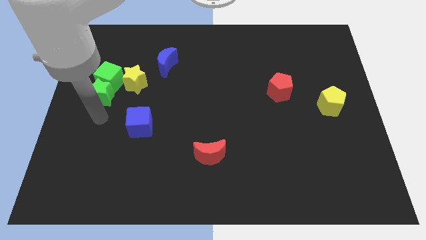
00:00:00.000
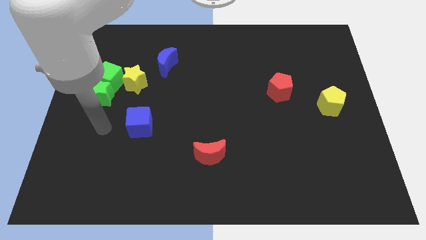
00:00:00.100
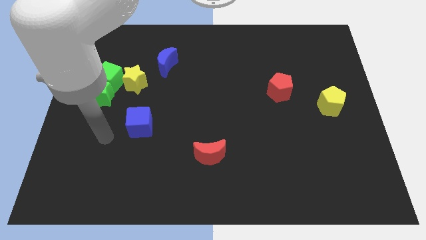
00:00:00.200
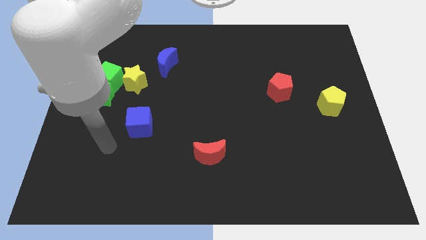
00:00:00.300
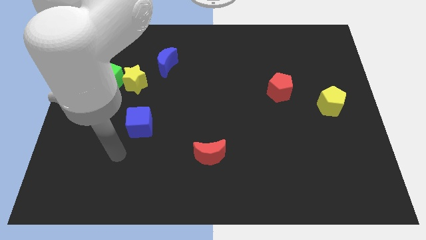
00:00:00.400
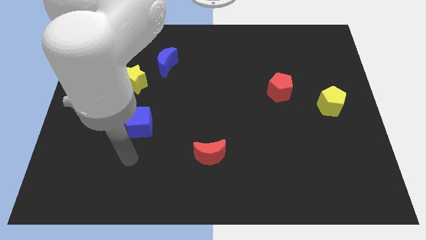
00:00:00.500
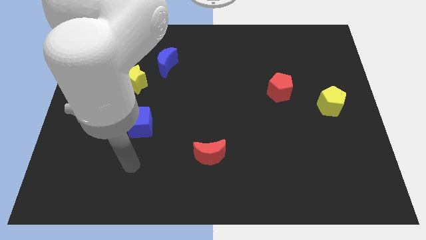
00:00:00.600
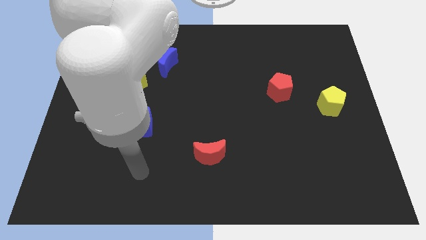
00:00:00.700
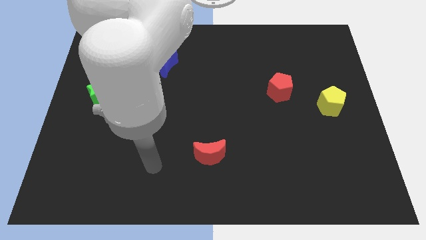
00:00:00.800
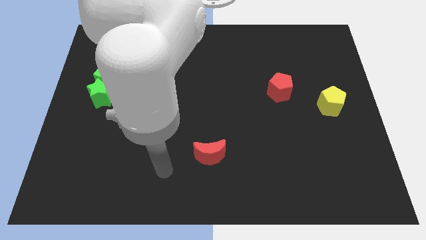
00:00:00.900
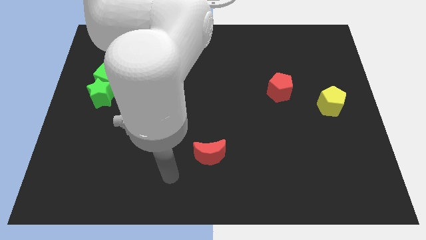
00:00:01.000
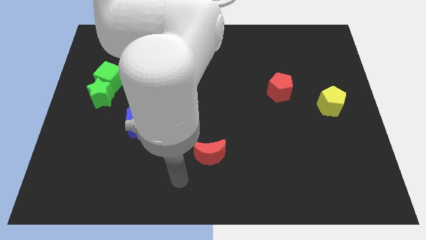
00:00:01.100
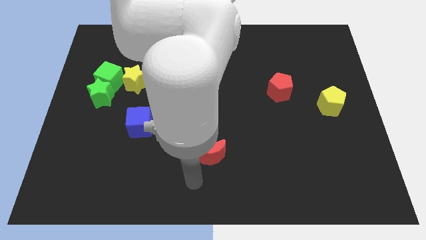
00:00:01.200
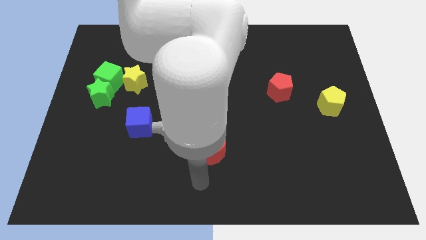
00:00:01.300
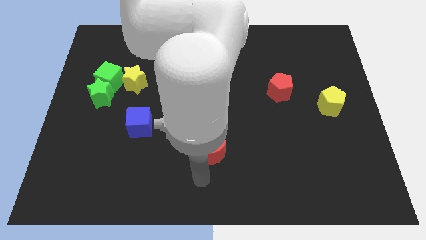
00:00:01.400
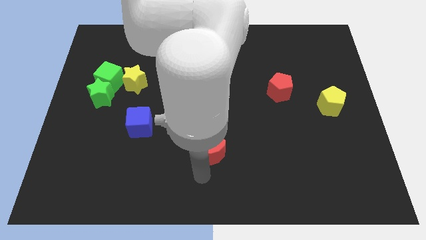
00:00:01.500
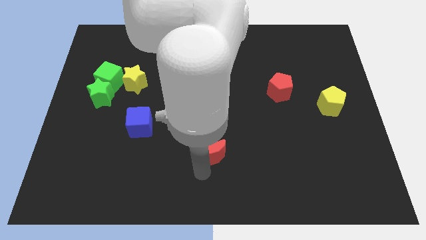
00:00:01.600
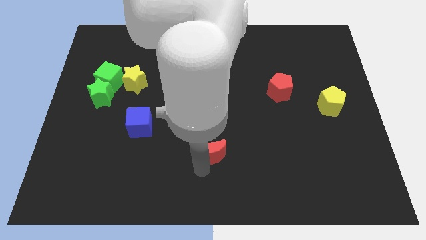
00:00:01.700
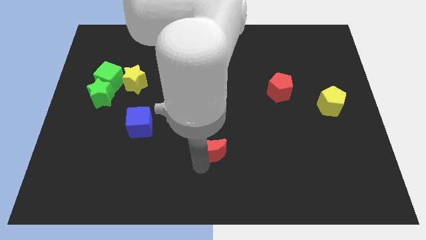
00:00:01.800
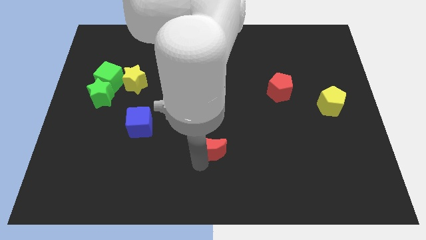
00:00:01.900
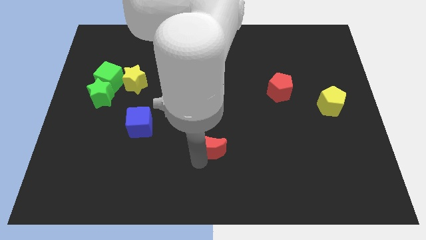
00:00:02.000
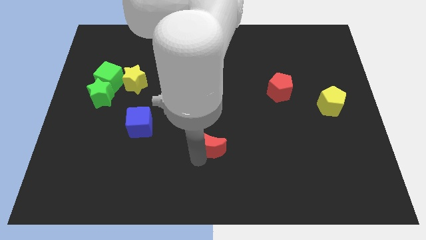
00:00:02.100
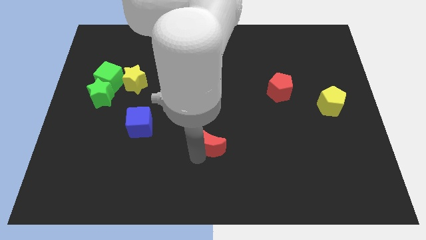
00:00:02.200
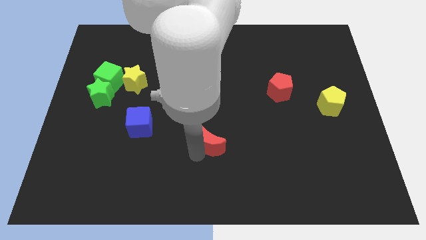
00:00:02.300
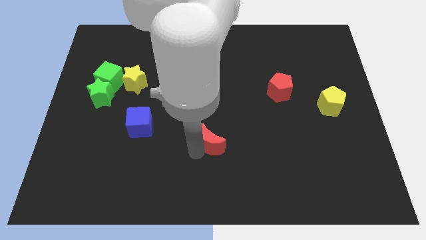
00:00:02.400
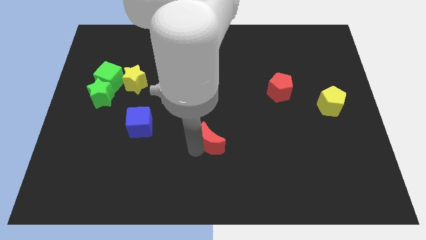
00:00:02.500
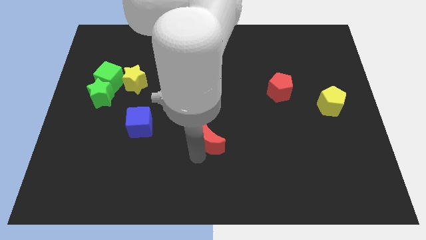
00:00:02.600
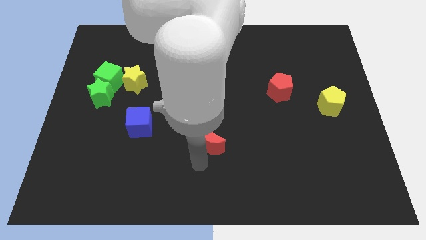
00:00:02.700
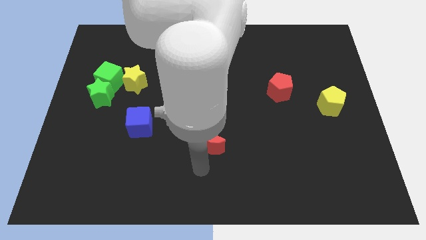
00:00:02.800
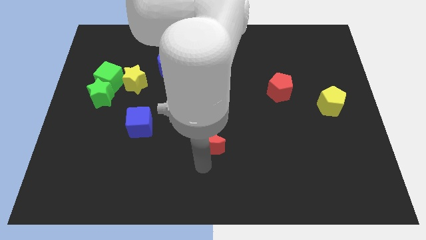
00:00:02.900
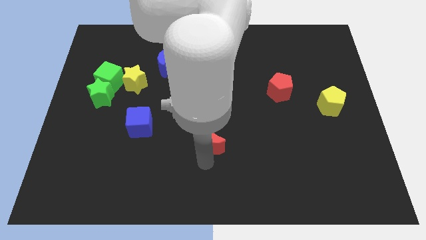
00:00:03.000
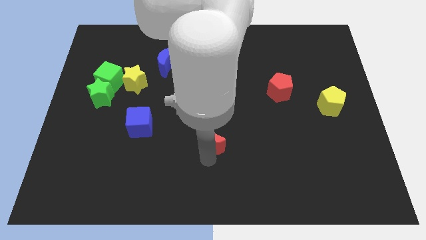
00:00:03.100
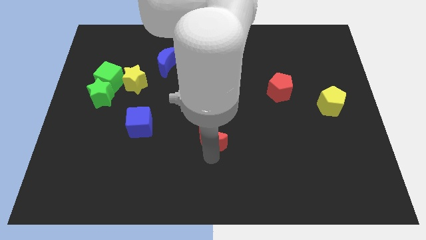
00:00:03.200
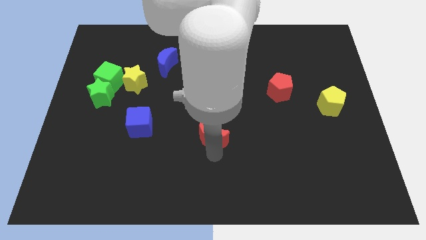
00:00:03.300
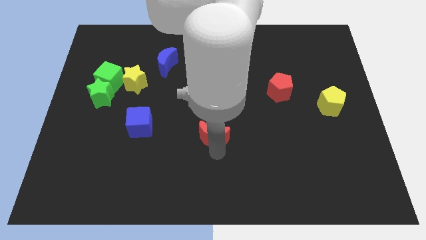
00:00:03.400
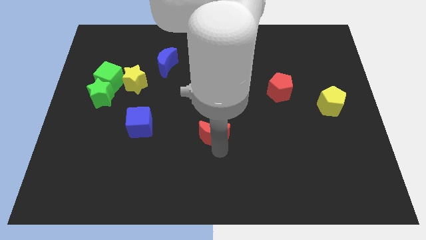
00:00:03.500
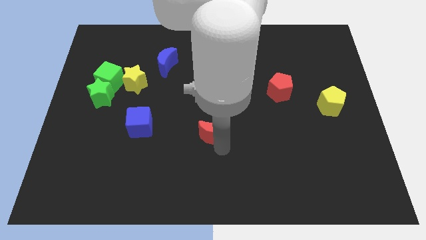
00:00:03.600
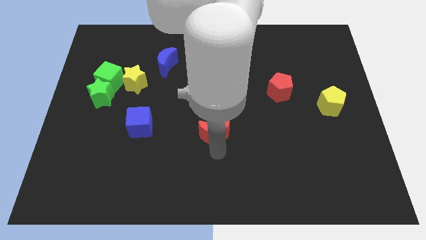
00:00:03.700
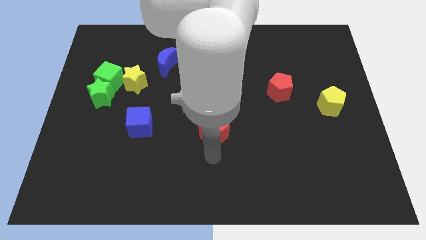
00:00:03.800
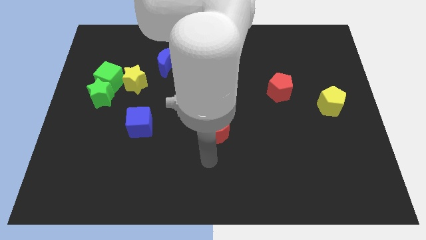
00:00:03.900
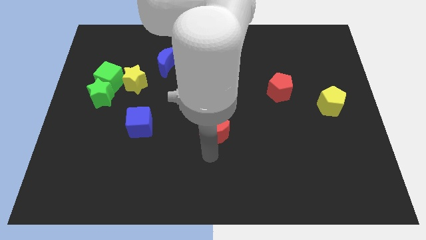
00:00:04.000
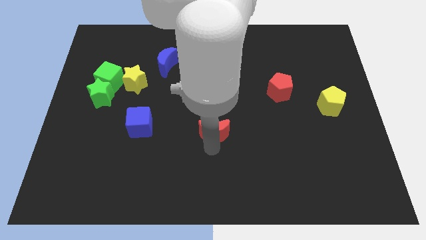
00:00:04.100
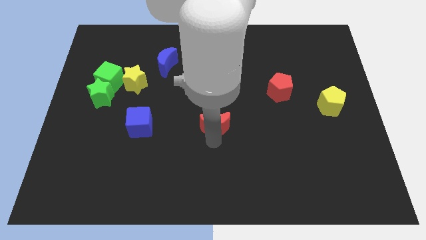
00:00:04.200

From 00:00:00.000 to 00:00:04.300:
slide the red moon up a little

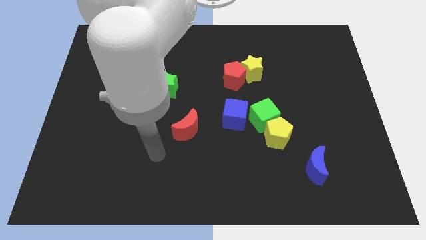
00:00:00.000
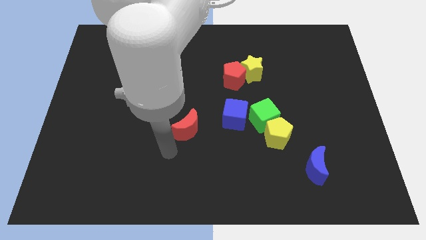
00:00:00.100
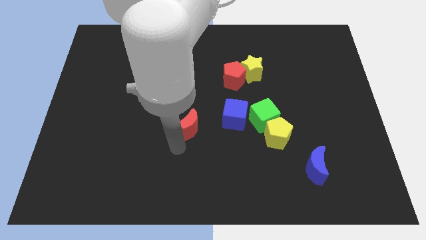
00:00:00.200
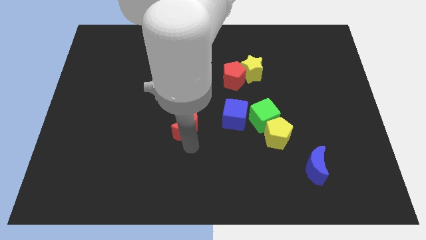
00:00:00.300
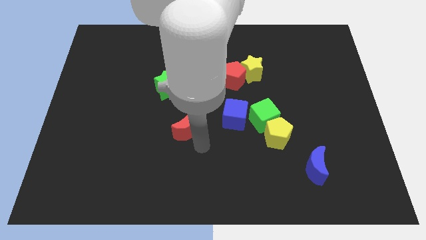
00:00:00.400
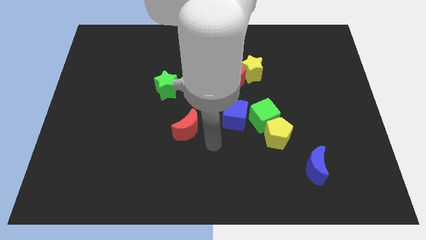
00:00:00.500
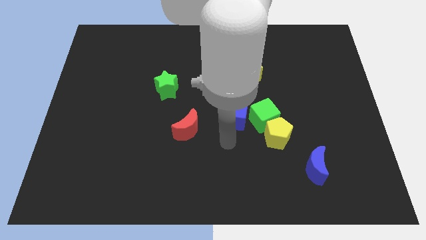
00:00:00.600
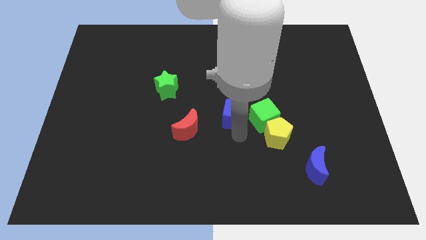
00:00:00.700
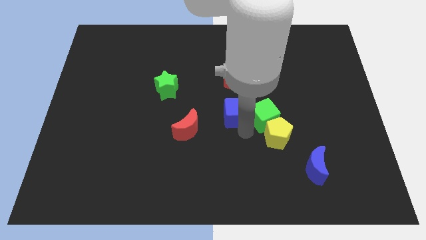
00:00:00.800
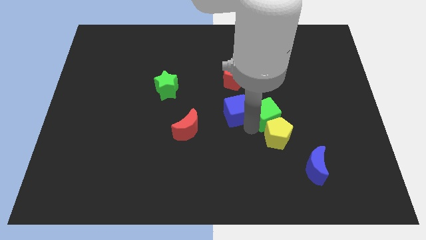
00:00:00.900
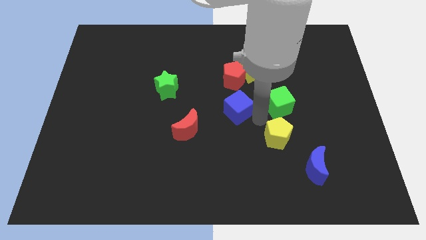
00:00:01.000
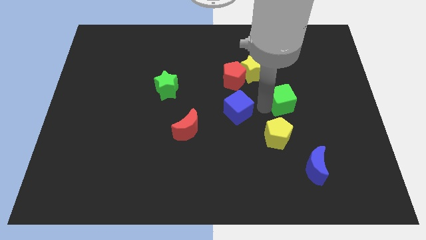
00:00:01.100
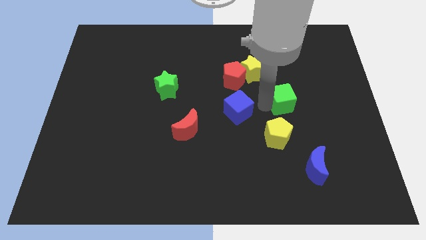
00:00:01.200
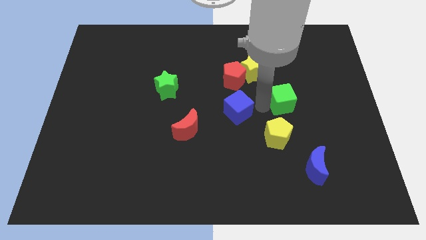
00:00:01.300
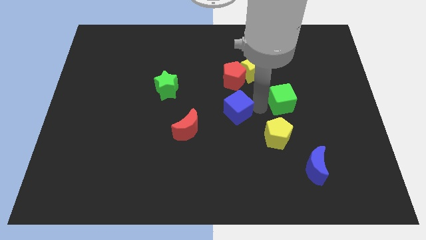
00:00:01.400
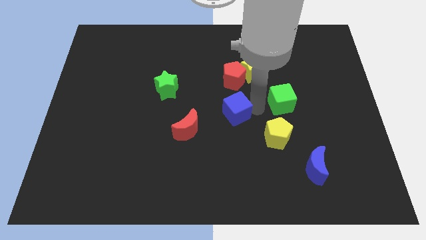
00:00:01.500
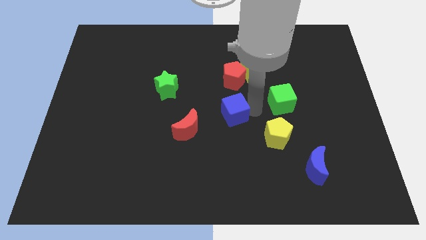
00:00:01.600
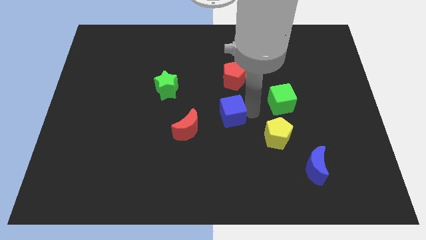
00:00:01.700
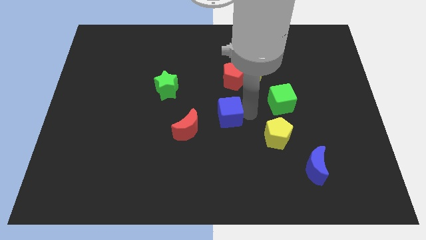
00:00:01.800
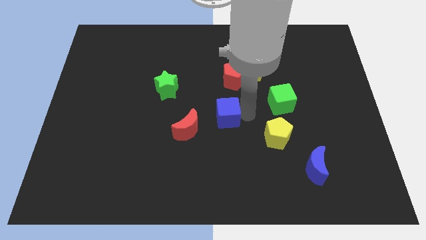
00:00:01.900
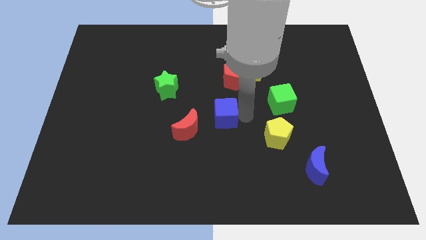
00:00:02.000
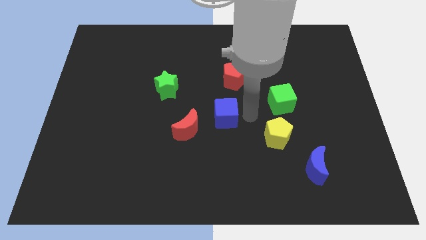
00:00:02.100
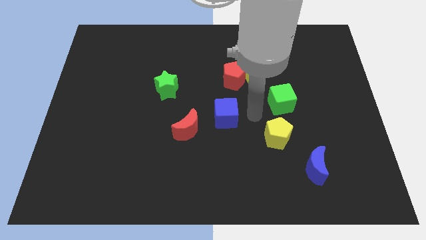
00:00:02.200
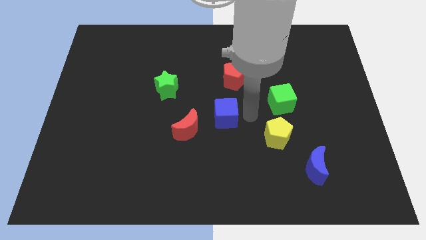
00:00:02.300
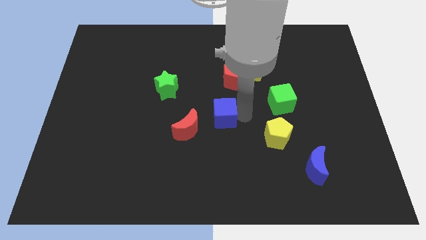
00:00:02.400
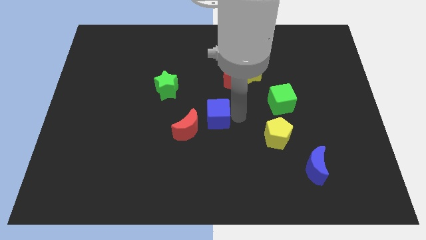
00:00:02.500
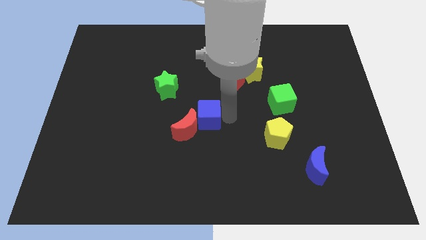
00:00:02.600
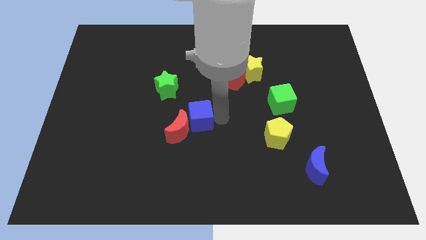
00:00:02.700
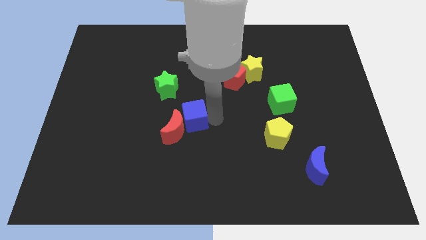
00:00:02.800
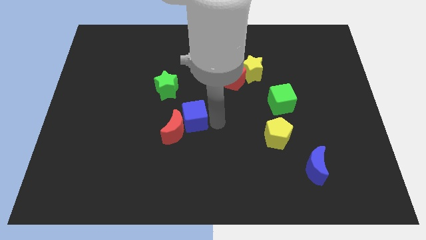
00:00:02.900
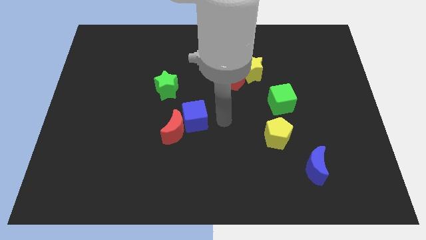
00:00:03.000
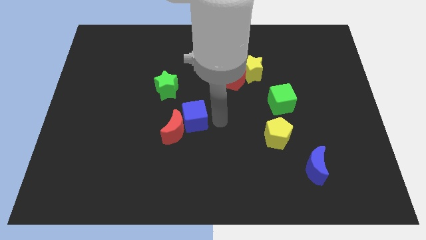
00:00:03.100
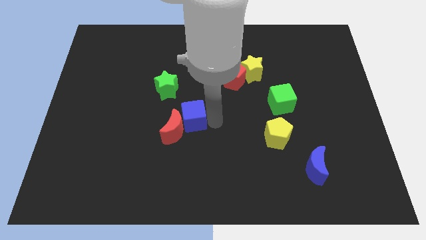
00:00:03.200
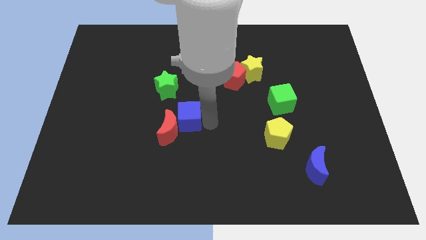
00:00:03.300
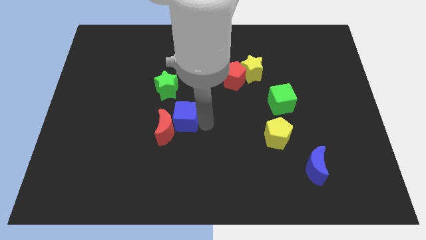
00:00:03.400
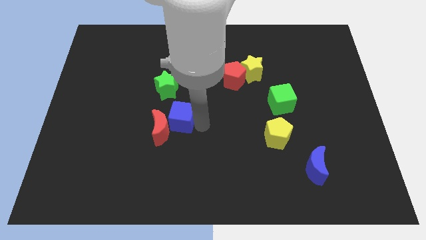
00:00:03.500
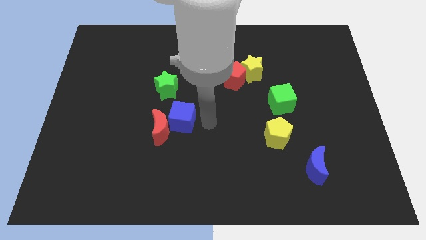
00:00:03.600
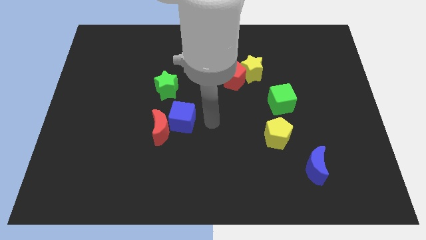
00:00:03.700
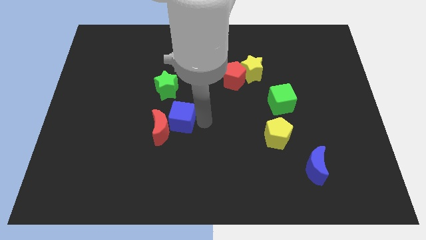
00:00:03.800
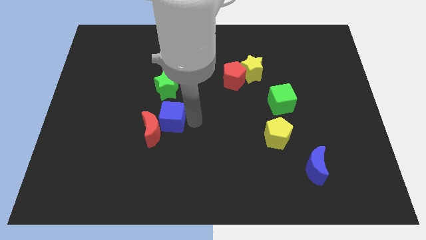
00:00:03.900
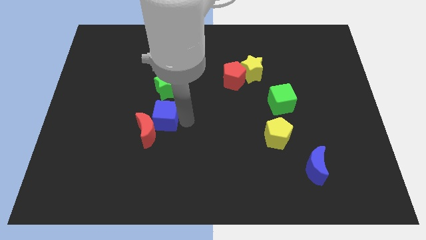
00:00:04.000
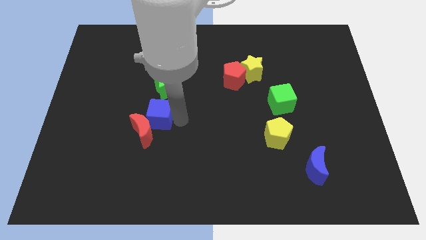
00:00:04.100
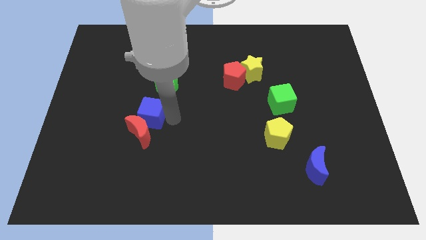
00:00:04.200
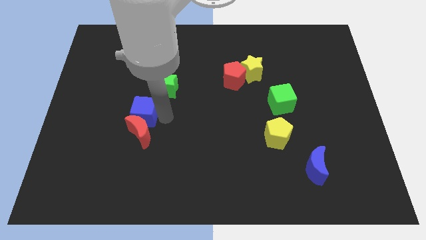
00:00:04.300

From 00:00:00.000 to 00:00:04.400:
slide the blue cube to the left
